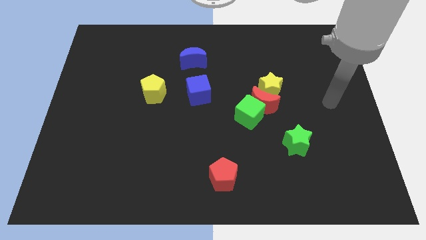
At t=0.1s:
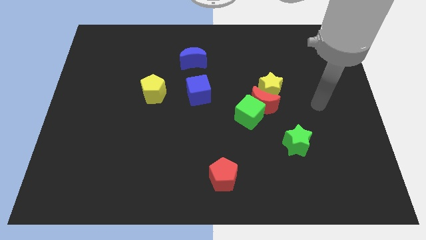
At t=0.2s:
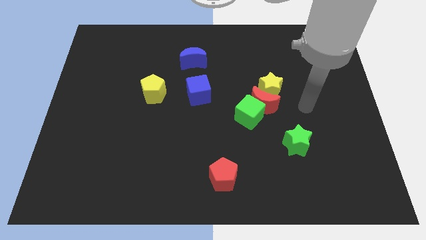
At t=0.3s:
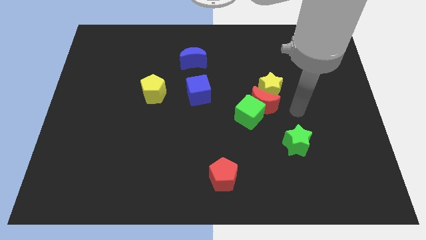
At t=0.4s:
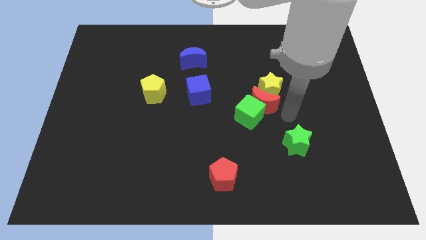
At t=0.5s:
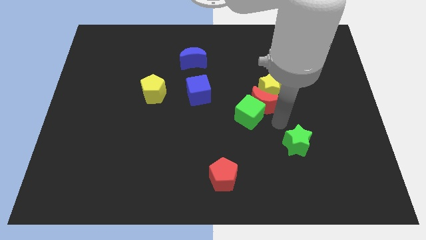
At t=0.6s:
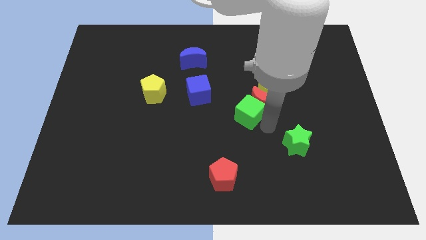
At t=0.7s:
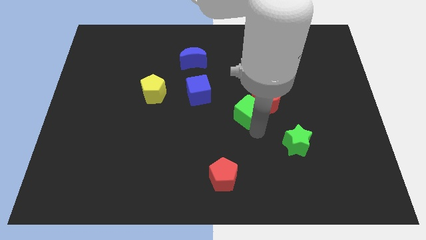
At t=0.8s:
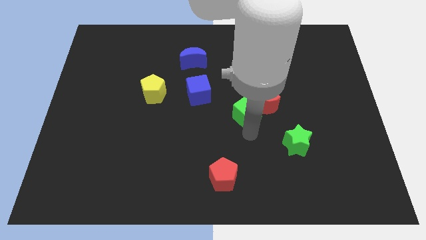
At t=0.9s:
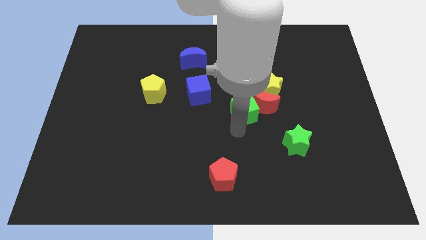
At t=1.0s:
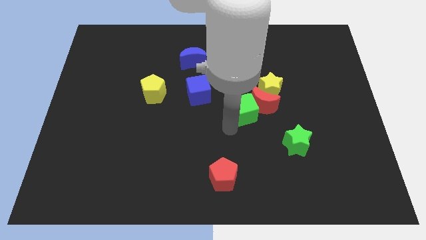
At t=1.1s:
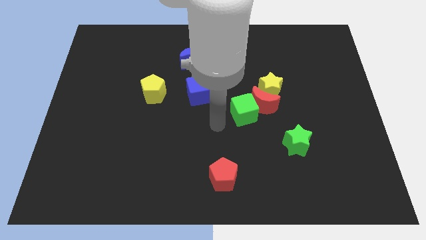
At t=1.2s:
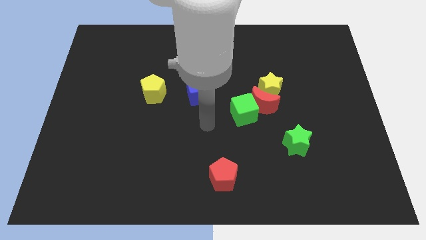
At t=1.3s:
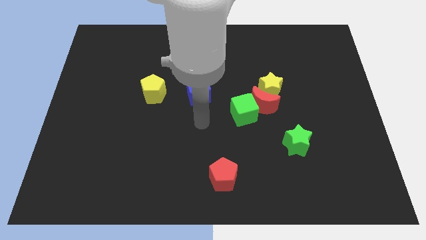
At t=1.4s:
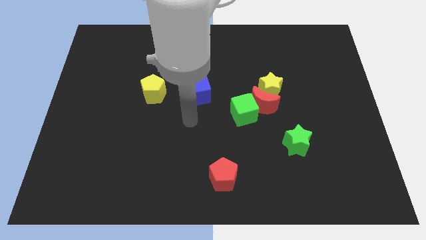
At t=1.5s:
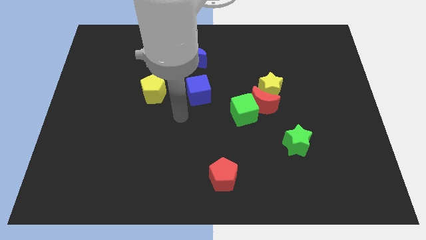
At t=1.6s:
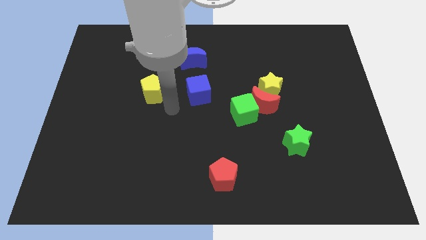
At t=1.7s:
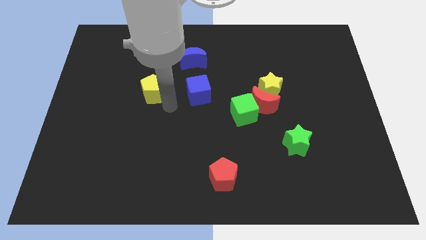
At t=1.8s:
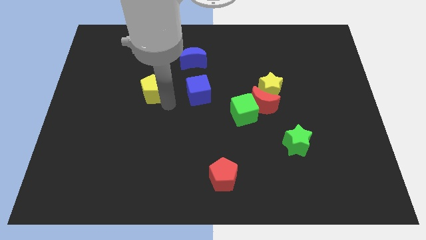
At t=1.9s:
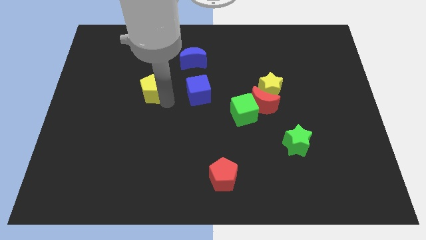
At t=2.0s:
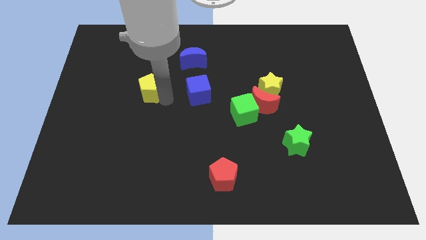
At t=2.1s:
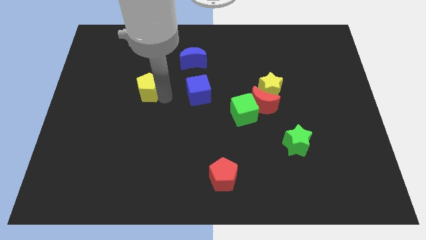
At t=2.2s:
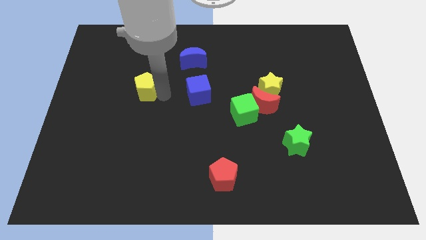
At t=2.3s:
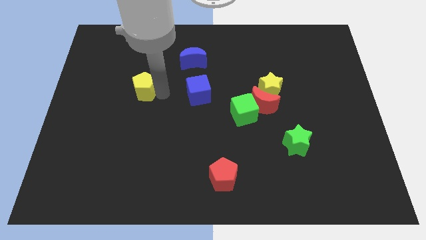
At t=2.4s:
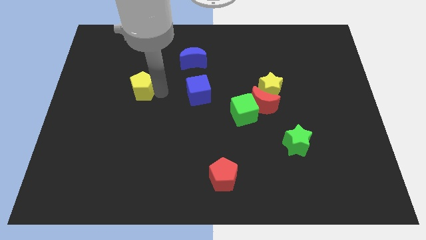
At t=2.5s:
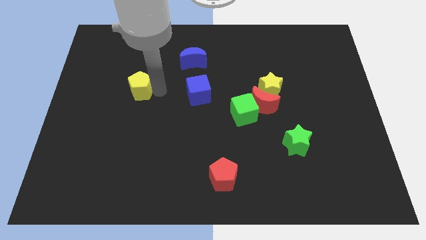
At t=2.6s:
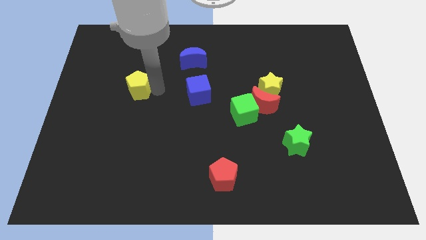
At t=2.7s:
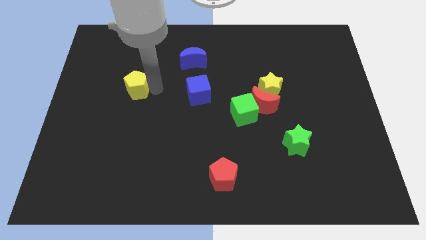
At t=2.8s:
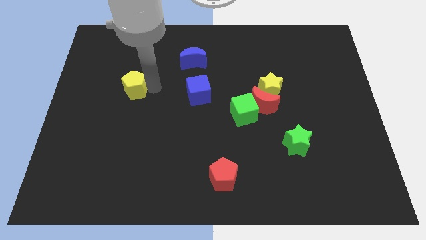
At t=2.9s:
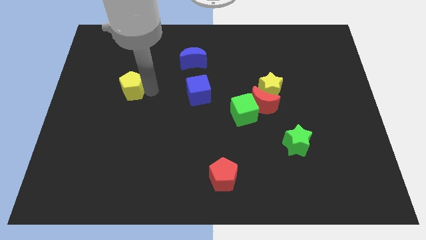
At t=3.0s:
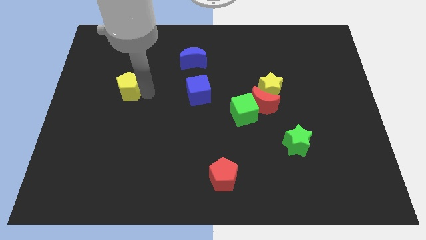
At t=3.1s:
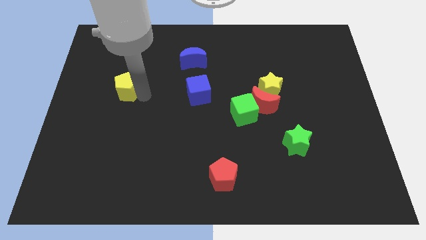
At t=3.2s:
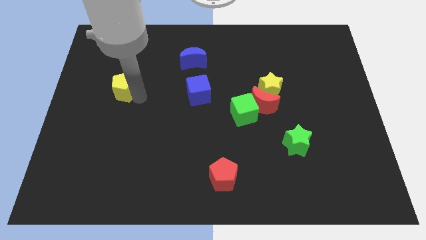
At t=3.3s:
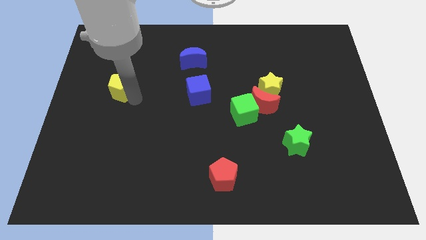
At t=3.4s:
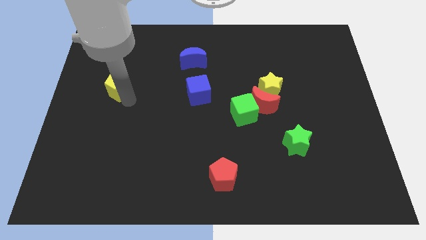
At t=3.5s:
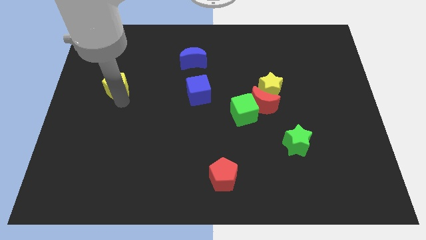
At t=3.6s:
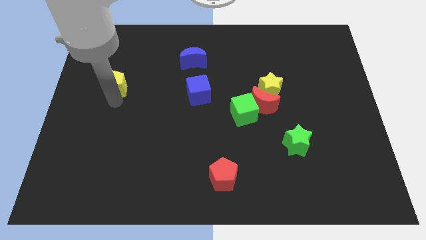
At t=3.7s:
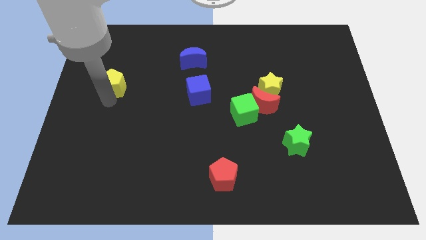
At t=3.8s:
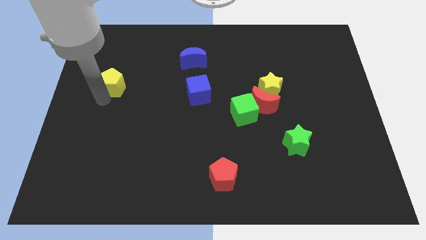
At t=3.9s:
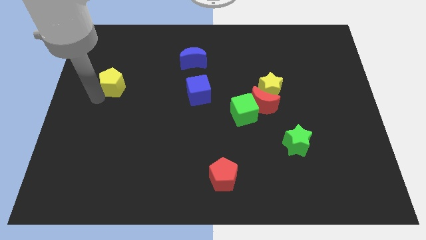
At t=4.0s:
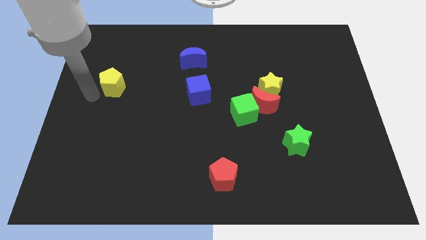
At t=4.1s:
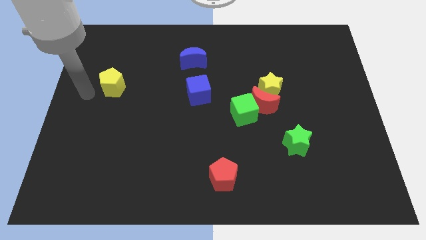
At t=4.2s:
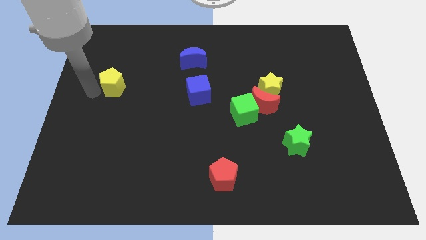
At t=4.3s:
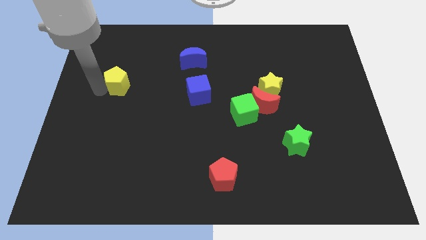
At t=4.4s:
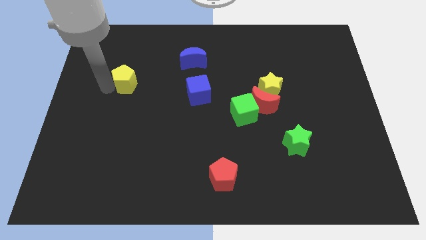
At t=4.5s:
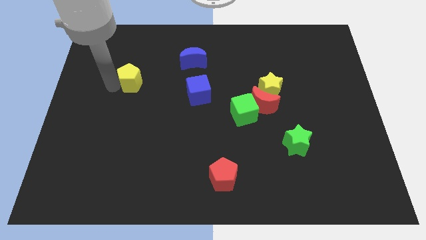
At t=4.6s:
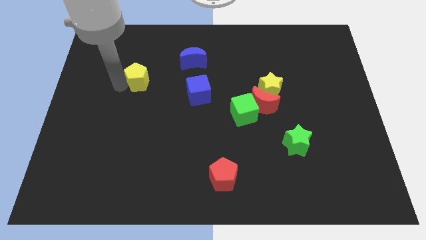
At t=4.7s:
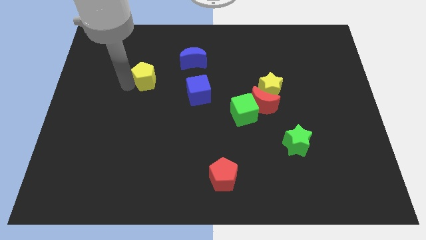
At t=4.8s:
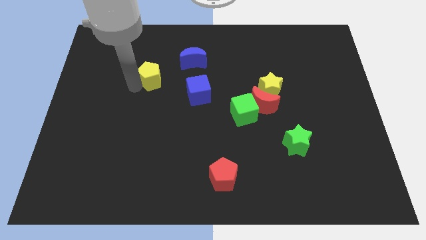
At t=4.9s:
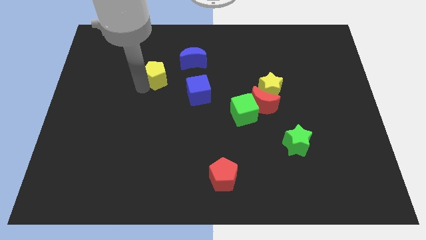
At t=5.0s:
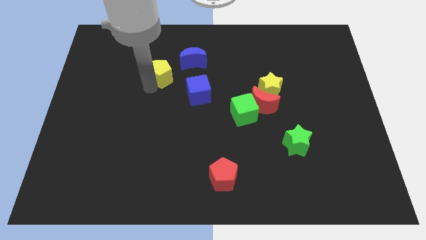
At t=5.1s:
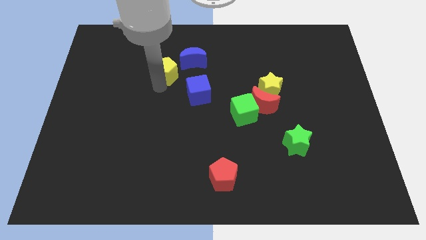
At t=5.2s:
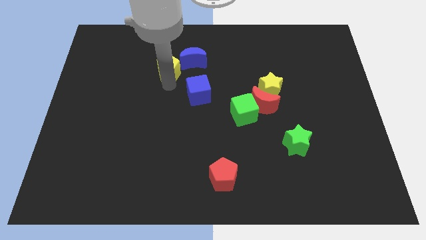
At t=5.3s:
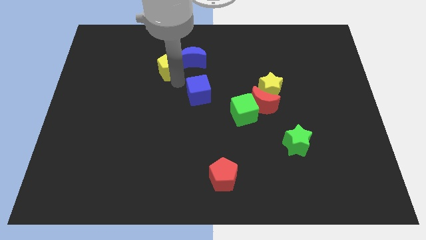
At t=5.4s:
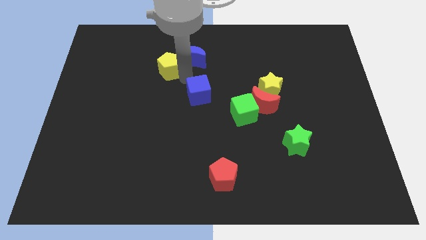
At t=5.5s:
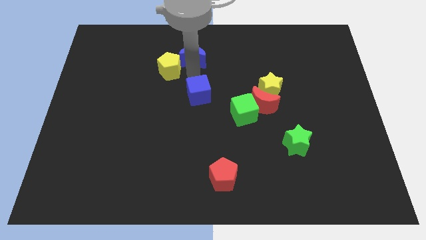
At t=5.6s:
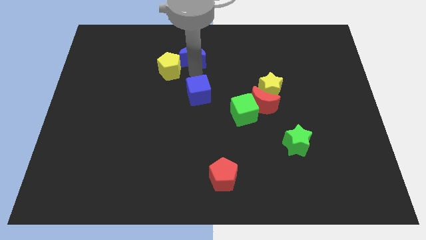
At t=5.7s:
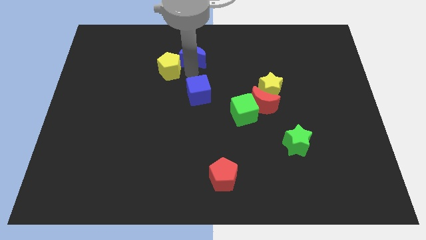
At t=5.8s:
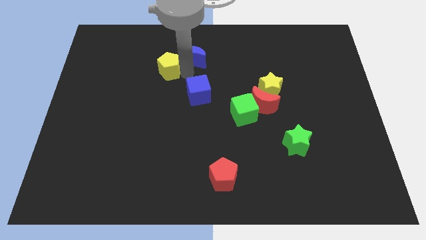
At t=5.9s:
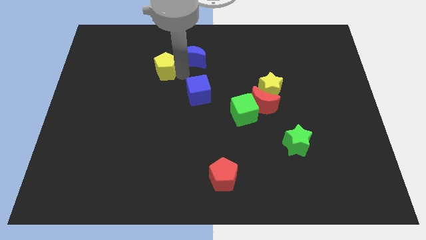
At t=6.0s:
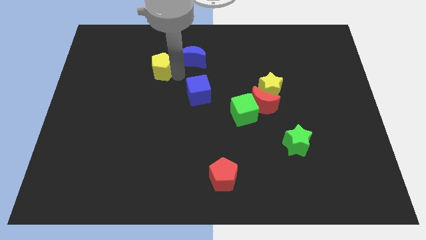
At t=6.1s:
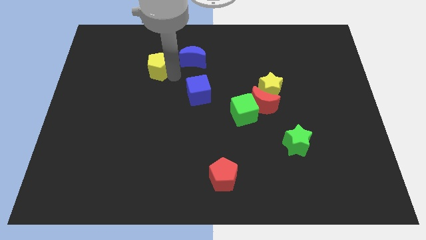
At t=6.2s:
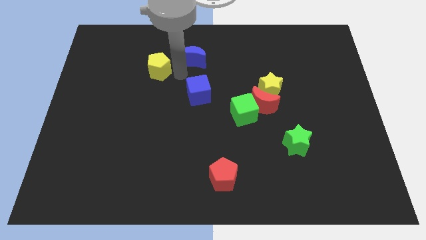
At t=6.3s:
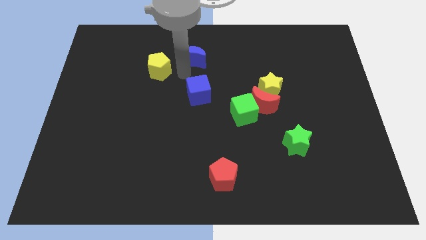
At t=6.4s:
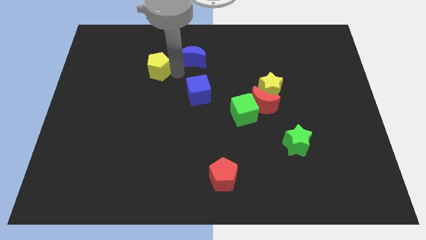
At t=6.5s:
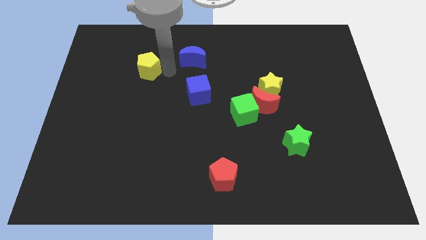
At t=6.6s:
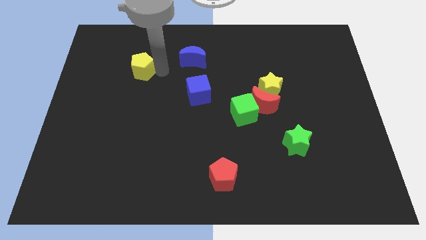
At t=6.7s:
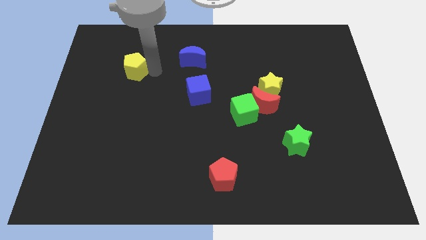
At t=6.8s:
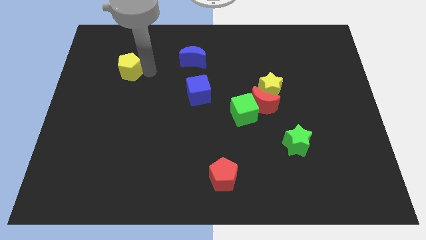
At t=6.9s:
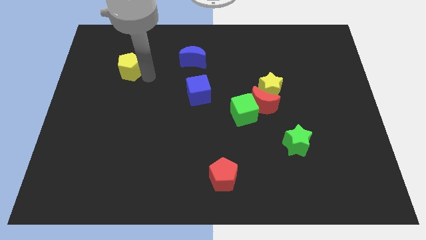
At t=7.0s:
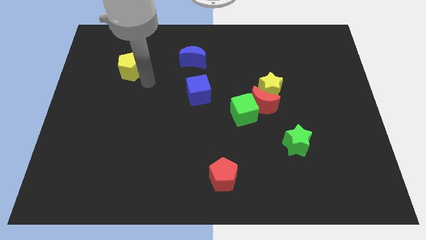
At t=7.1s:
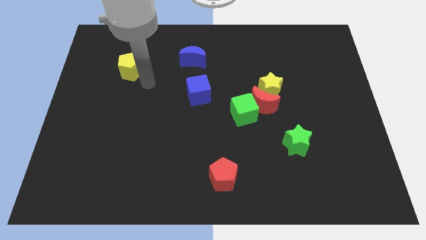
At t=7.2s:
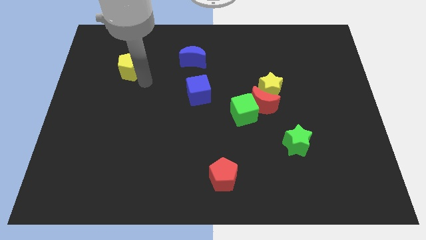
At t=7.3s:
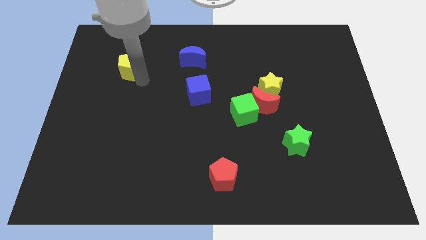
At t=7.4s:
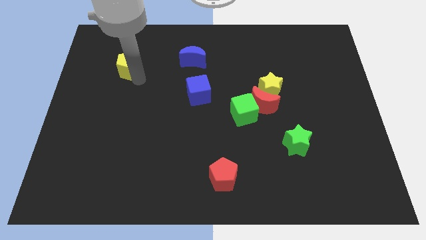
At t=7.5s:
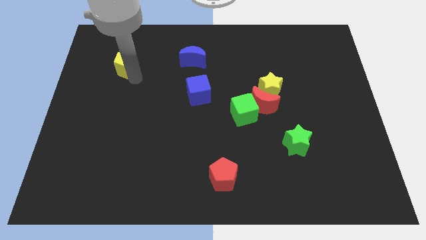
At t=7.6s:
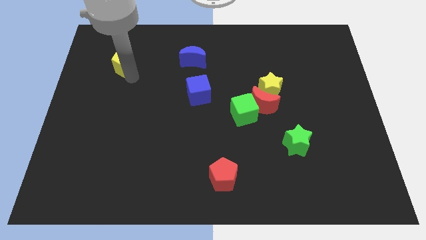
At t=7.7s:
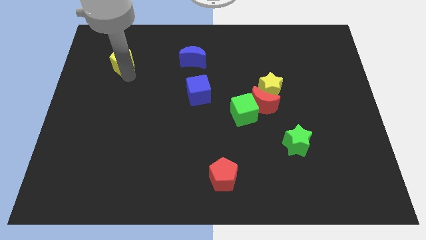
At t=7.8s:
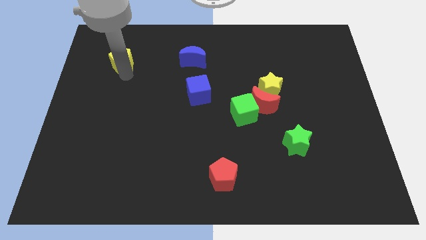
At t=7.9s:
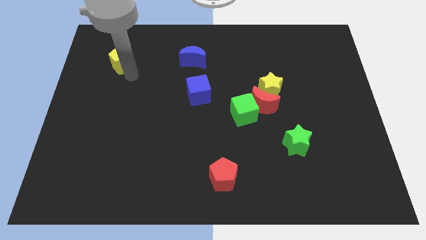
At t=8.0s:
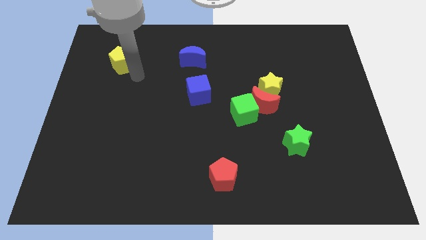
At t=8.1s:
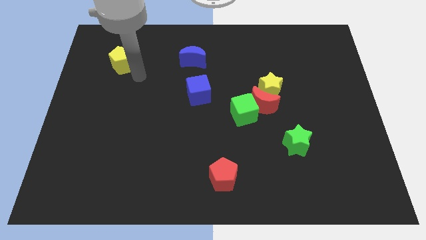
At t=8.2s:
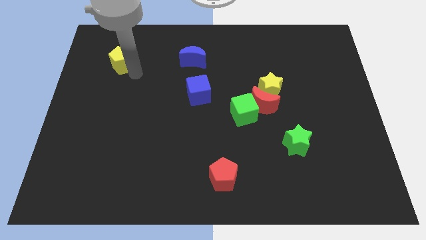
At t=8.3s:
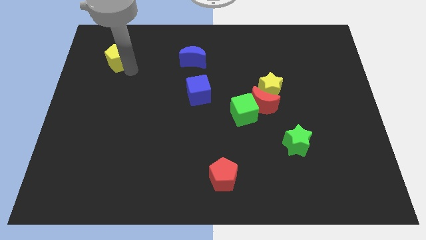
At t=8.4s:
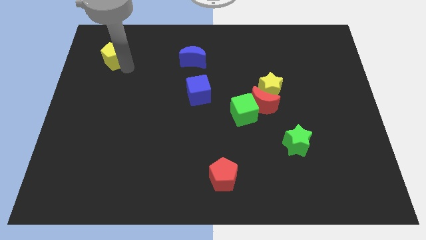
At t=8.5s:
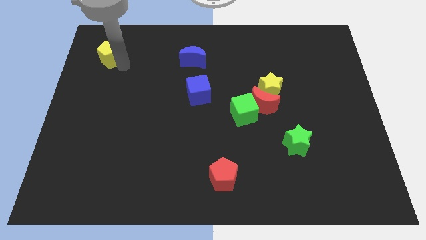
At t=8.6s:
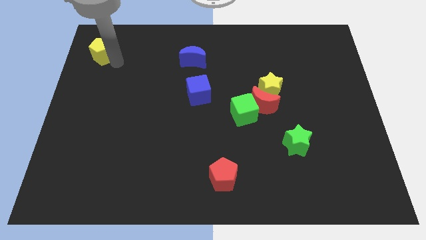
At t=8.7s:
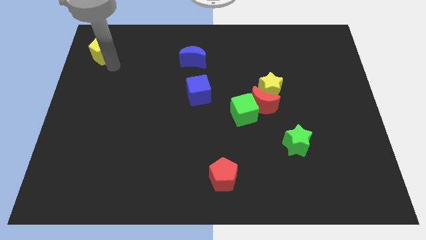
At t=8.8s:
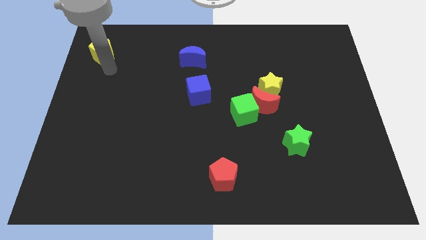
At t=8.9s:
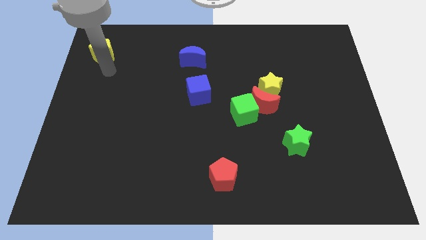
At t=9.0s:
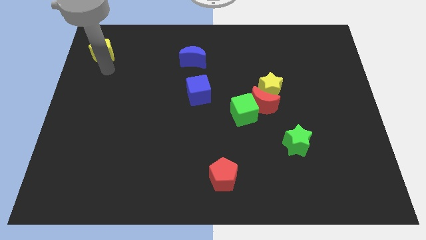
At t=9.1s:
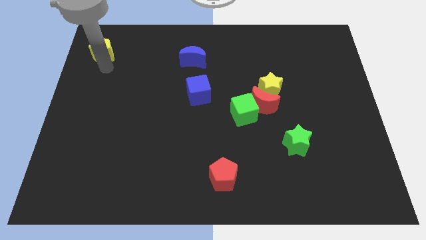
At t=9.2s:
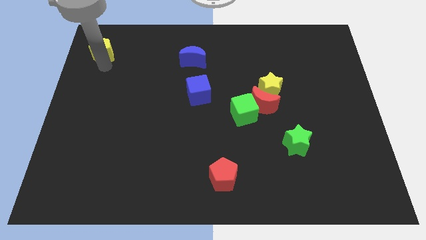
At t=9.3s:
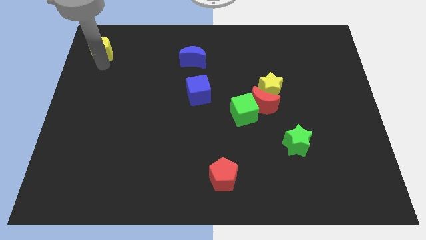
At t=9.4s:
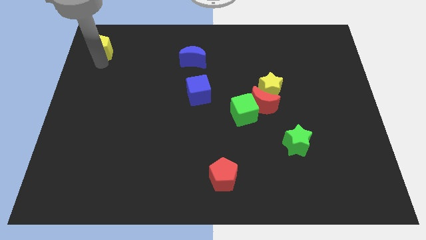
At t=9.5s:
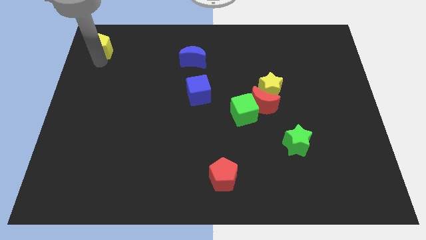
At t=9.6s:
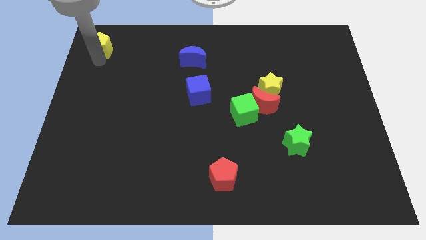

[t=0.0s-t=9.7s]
slide the yellow pentagon to the top left of the board
